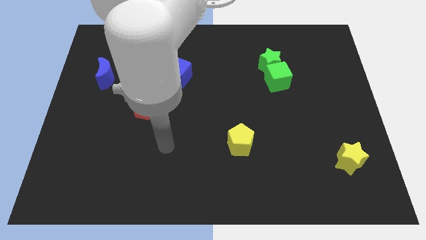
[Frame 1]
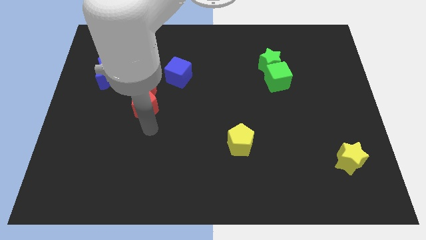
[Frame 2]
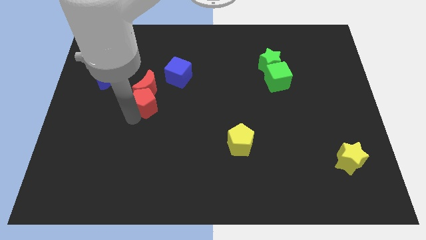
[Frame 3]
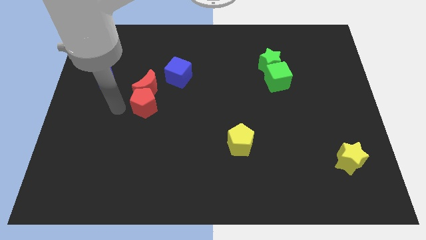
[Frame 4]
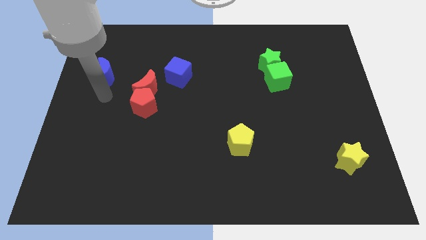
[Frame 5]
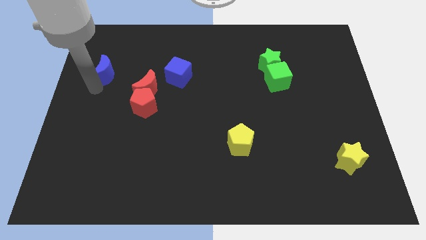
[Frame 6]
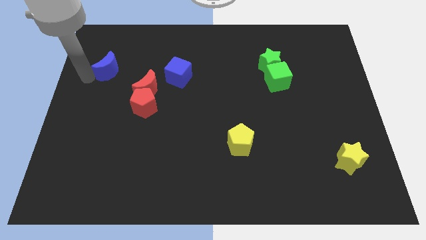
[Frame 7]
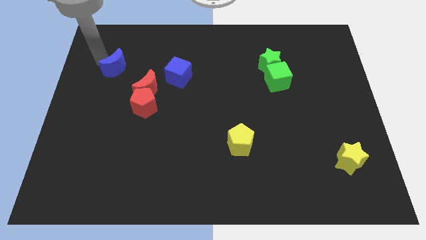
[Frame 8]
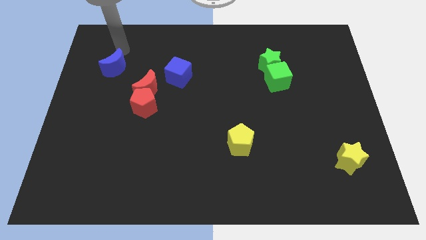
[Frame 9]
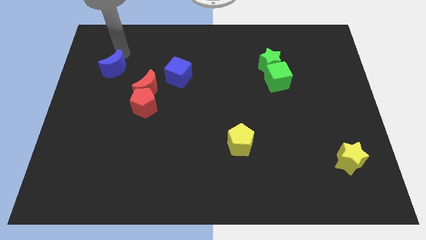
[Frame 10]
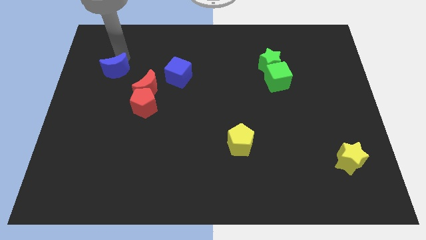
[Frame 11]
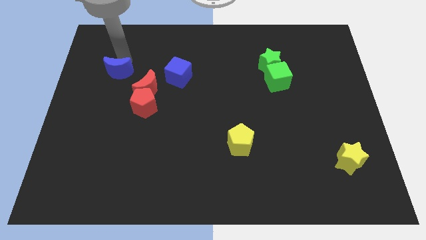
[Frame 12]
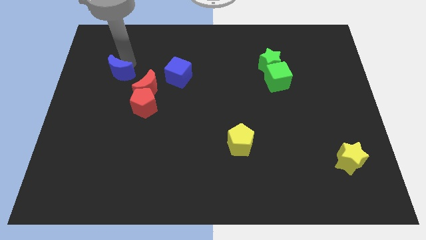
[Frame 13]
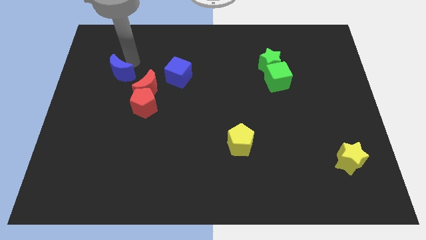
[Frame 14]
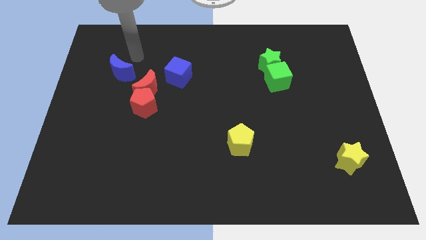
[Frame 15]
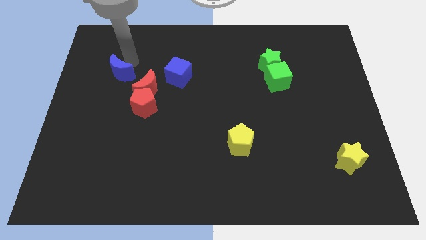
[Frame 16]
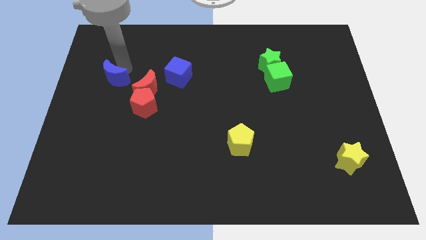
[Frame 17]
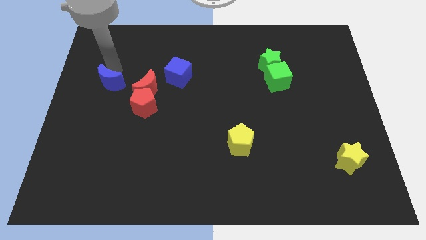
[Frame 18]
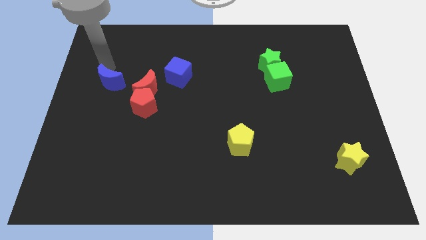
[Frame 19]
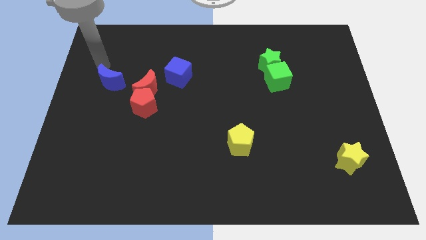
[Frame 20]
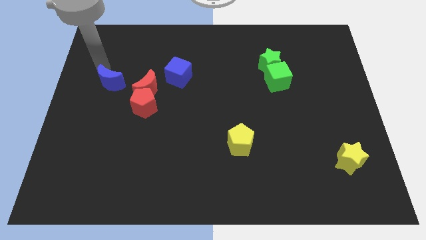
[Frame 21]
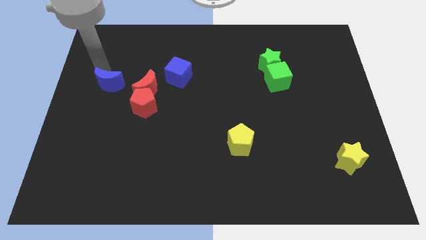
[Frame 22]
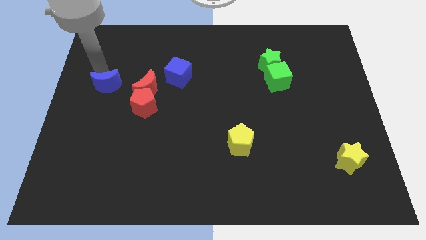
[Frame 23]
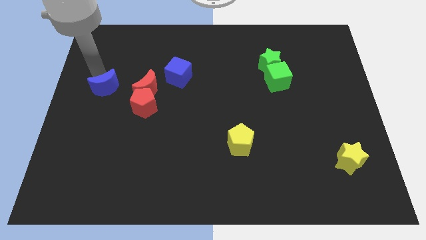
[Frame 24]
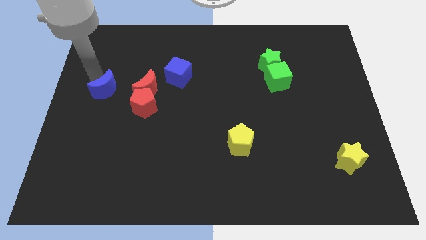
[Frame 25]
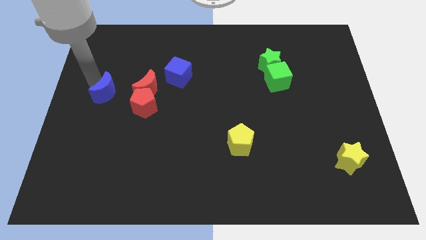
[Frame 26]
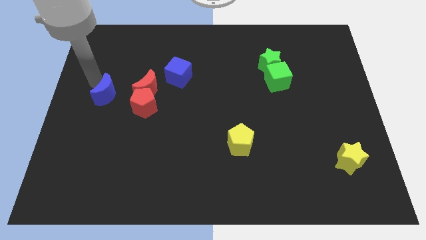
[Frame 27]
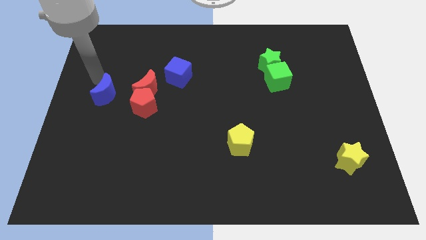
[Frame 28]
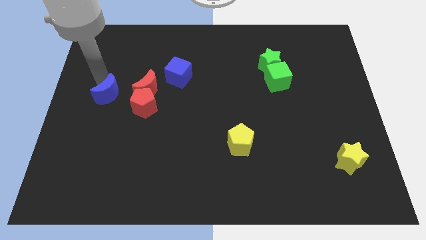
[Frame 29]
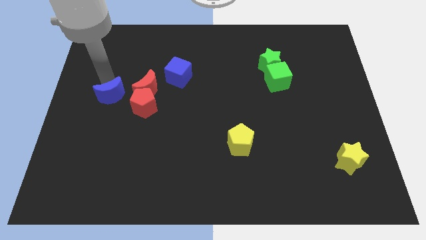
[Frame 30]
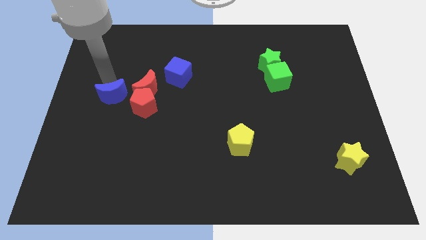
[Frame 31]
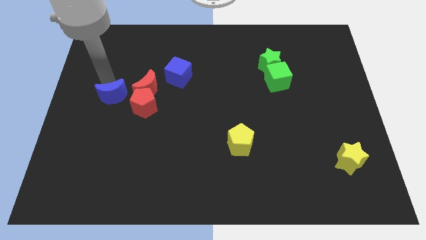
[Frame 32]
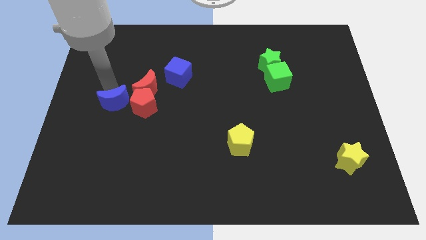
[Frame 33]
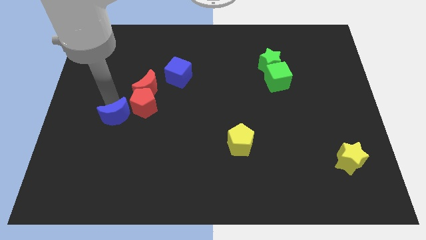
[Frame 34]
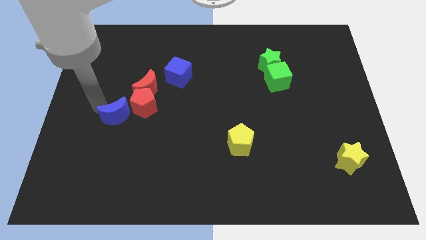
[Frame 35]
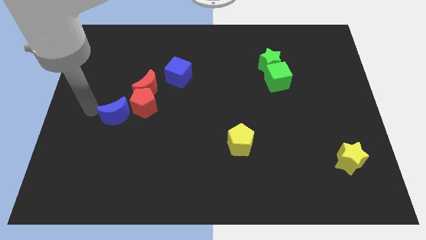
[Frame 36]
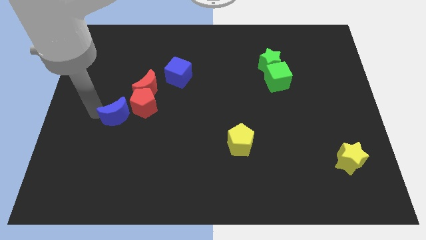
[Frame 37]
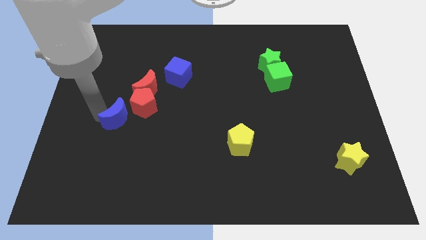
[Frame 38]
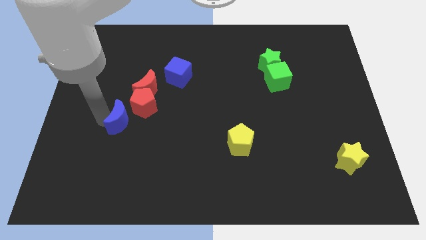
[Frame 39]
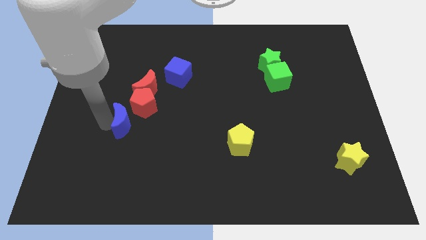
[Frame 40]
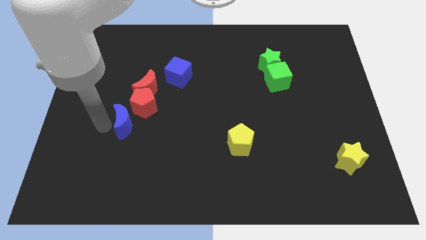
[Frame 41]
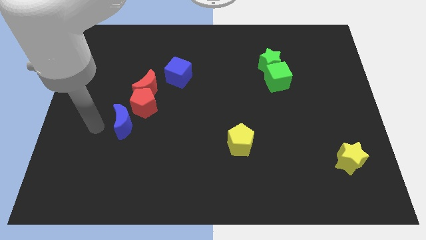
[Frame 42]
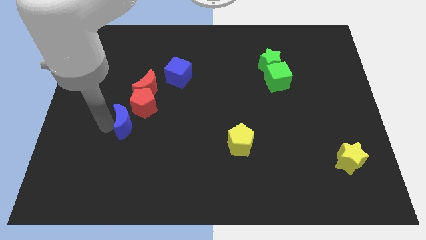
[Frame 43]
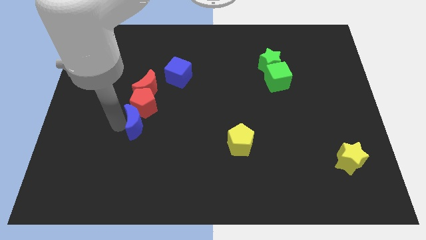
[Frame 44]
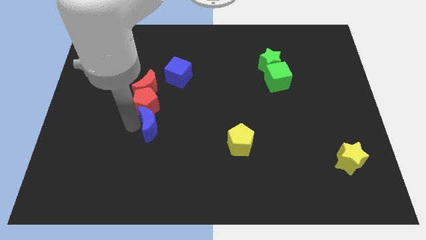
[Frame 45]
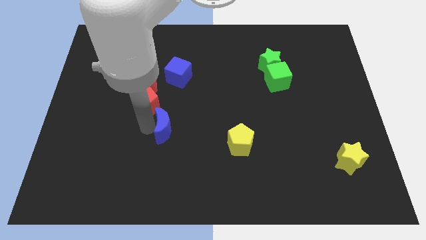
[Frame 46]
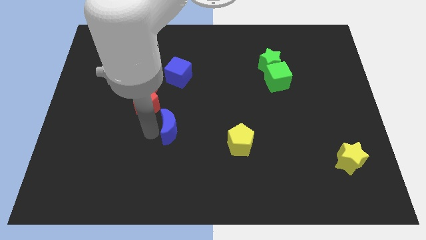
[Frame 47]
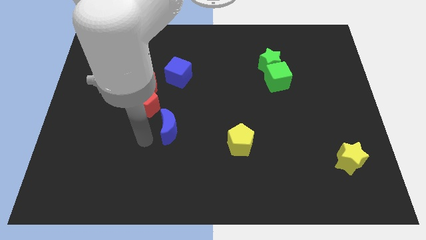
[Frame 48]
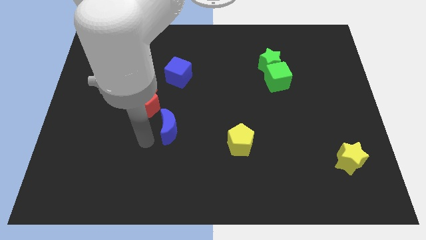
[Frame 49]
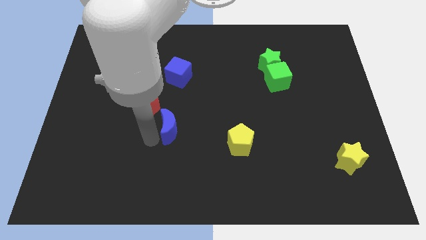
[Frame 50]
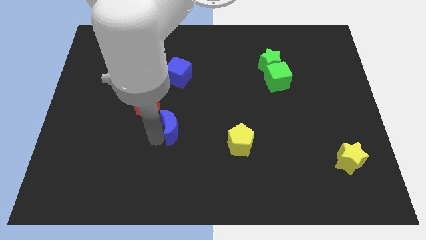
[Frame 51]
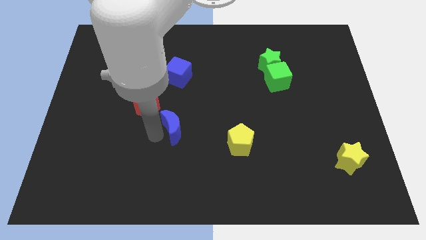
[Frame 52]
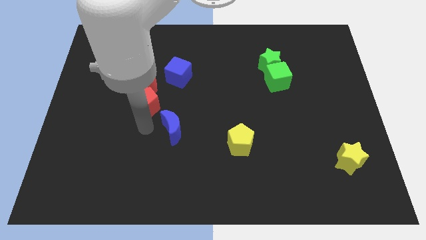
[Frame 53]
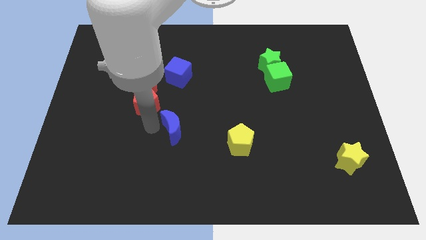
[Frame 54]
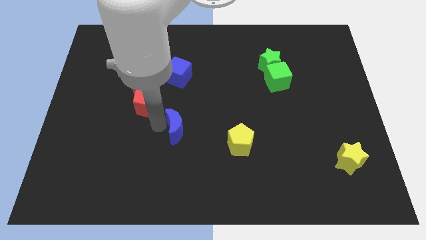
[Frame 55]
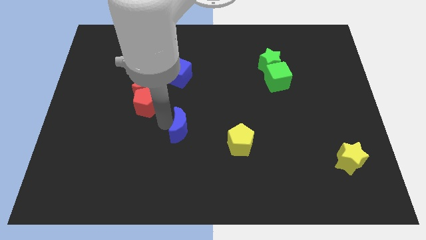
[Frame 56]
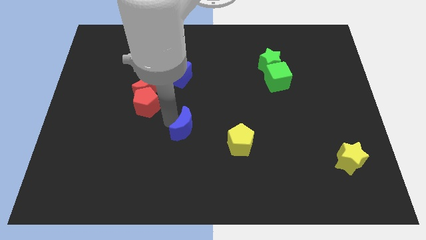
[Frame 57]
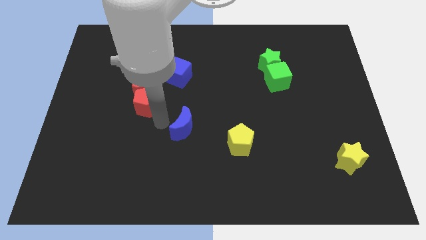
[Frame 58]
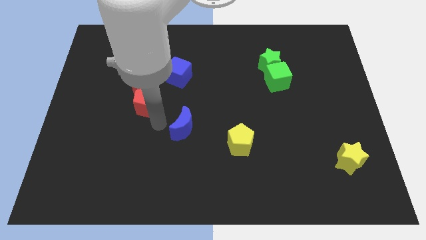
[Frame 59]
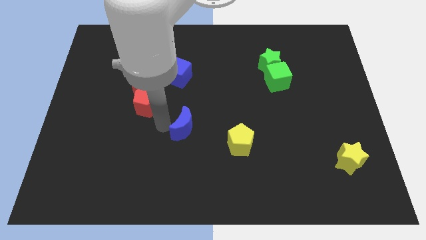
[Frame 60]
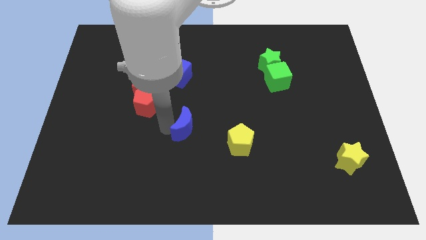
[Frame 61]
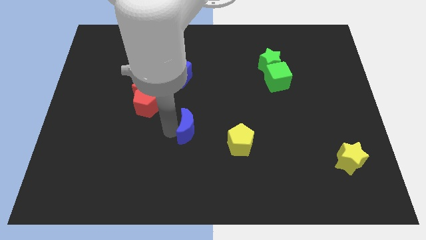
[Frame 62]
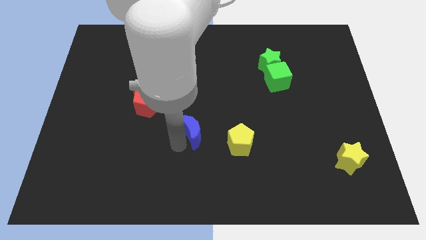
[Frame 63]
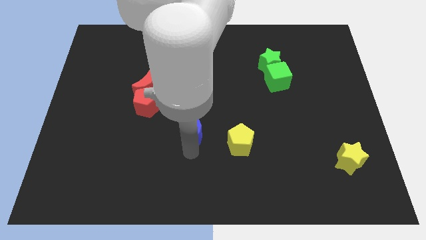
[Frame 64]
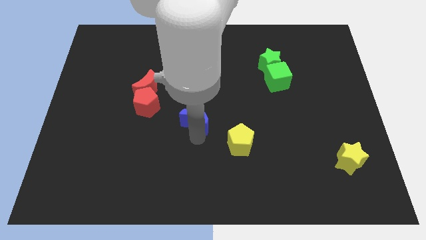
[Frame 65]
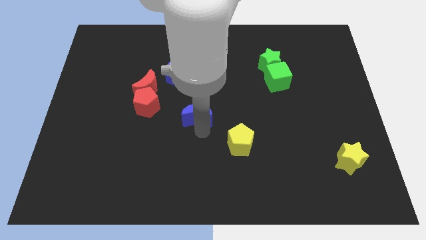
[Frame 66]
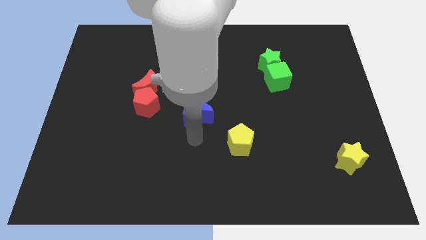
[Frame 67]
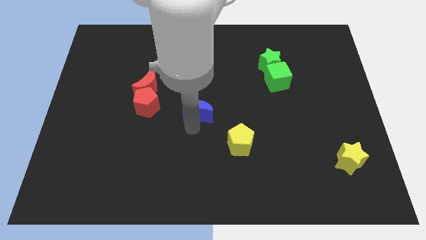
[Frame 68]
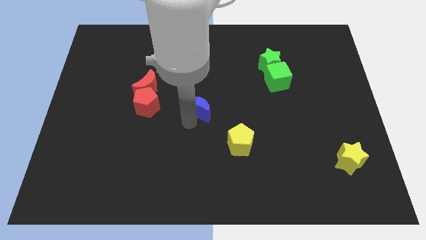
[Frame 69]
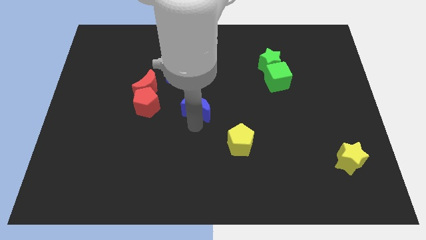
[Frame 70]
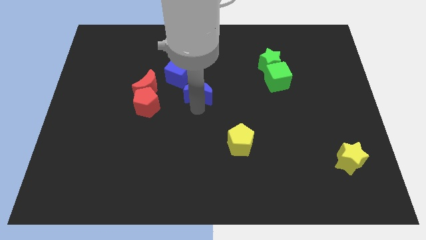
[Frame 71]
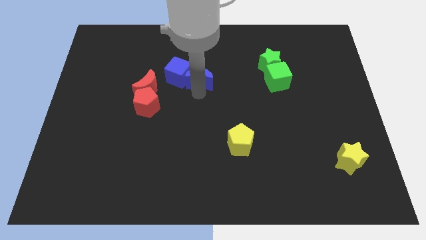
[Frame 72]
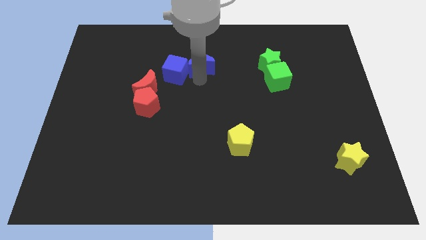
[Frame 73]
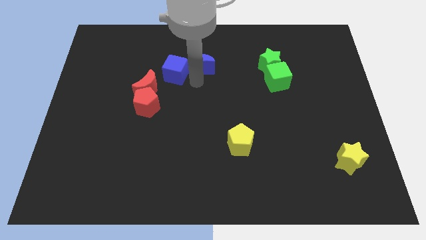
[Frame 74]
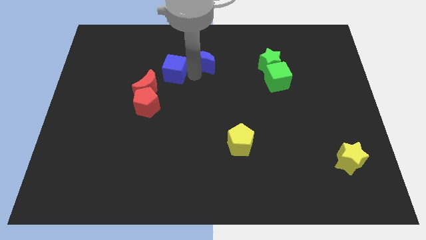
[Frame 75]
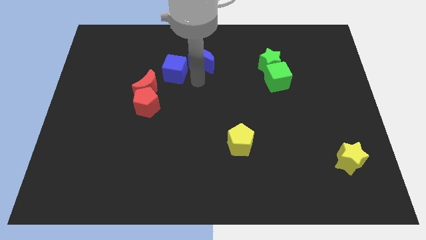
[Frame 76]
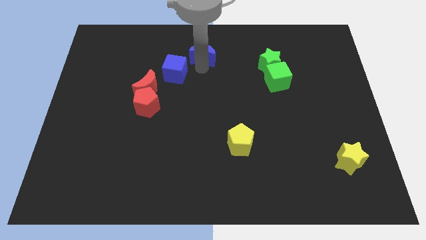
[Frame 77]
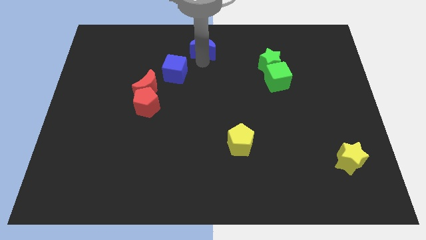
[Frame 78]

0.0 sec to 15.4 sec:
put the blue moon to the towards your base
